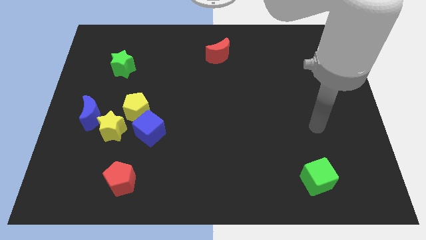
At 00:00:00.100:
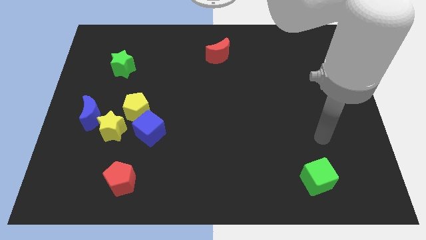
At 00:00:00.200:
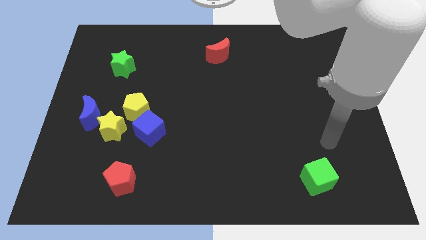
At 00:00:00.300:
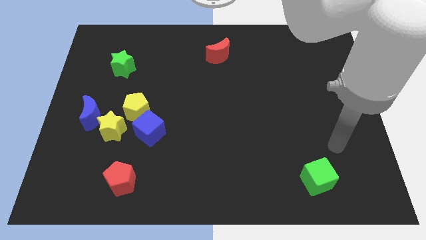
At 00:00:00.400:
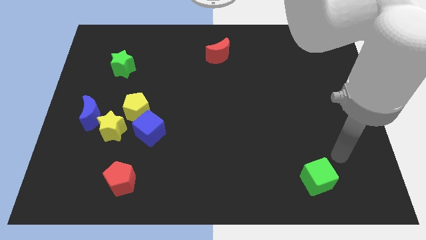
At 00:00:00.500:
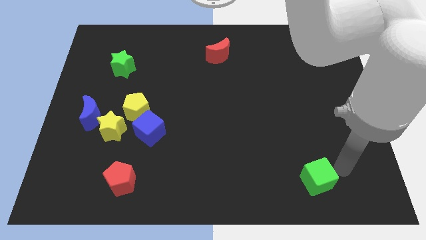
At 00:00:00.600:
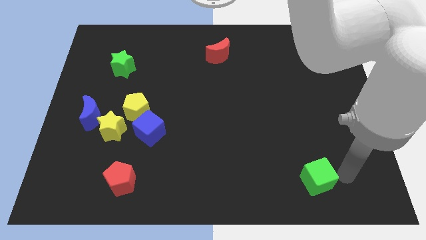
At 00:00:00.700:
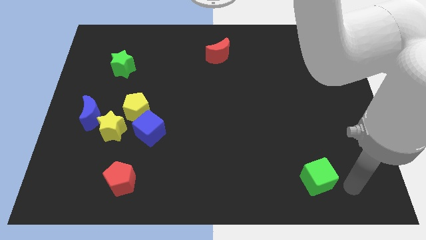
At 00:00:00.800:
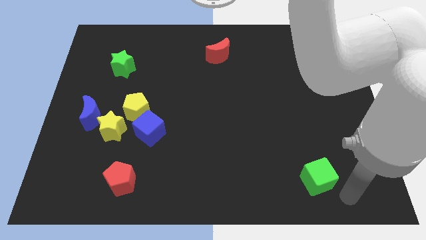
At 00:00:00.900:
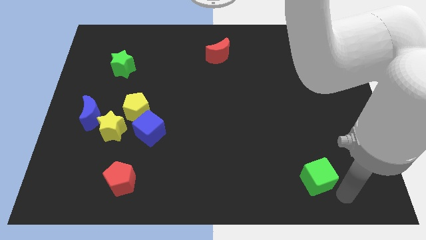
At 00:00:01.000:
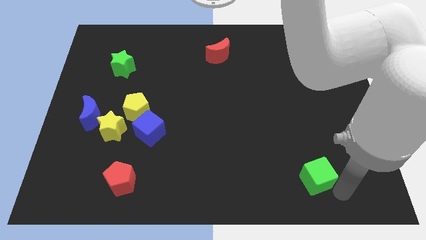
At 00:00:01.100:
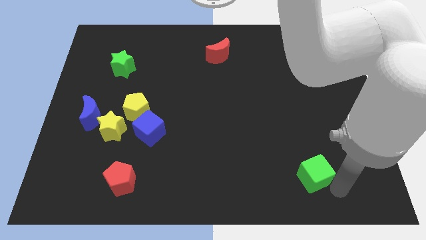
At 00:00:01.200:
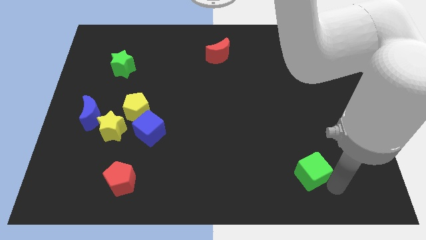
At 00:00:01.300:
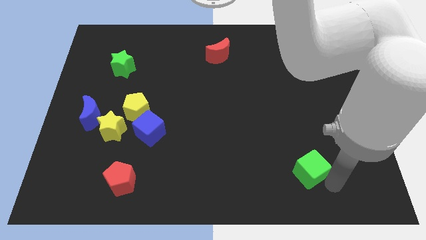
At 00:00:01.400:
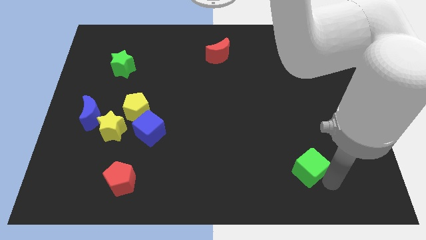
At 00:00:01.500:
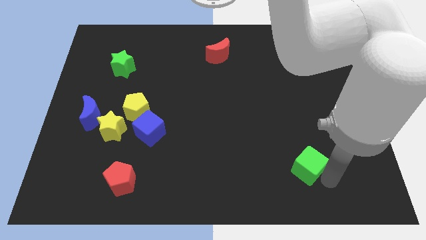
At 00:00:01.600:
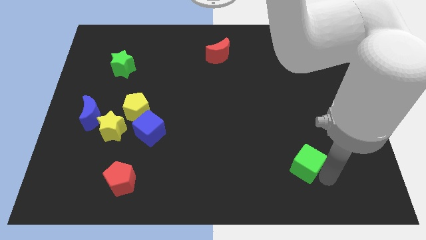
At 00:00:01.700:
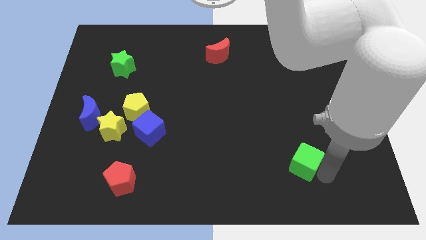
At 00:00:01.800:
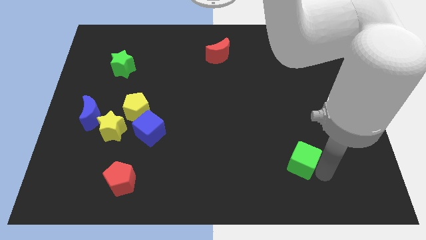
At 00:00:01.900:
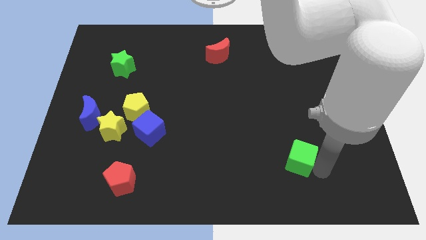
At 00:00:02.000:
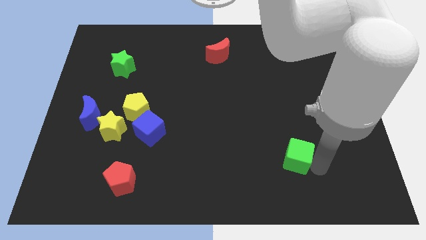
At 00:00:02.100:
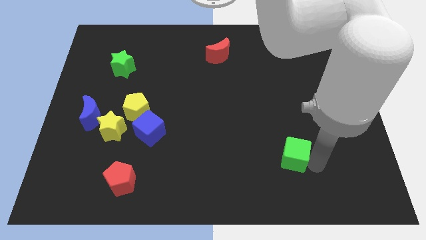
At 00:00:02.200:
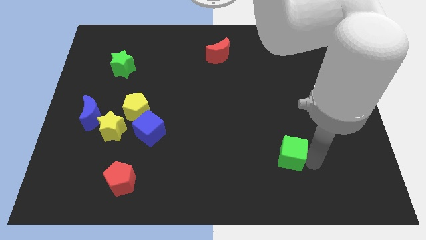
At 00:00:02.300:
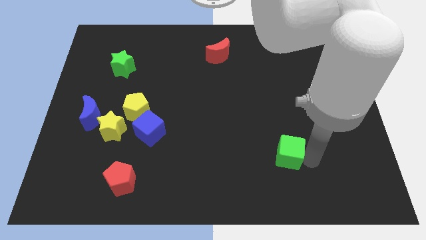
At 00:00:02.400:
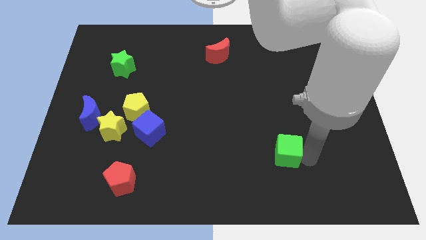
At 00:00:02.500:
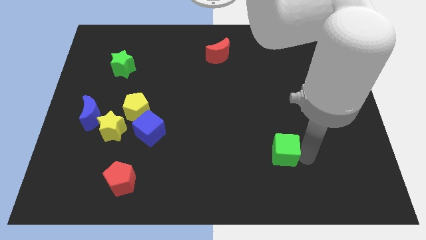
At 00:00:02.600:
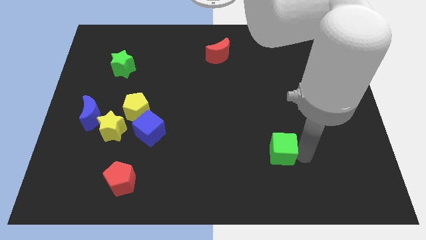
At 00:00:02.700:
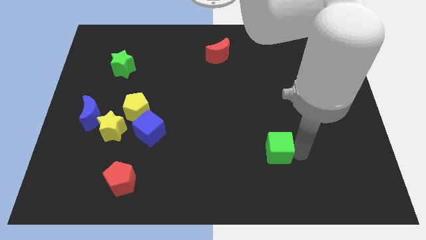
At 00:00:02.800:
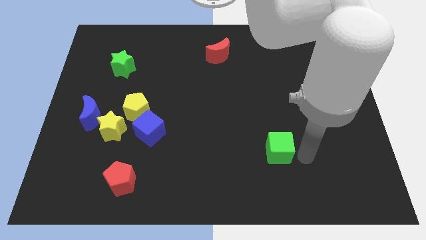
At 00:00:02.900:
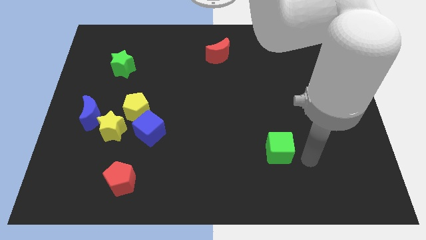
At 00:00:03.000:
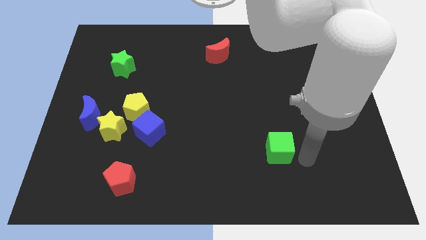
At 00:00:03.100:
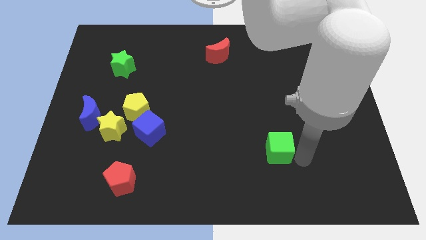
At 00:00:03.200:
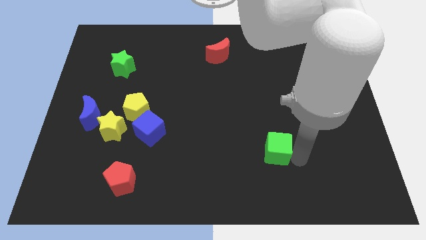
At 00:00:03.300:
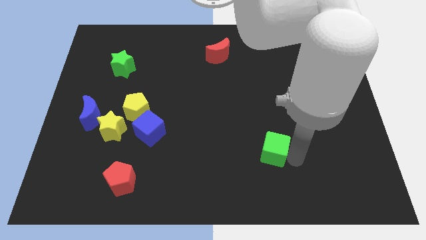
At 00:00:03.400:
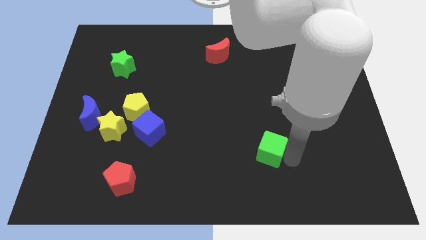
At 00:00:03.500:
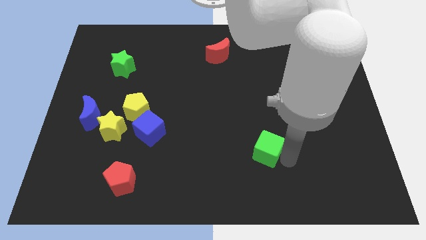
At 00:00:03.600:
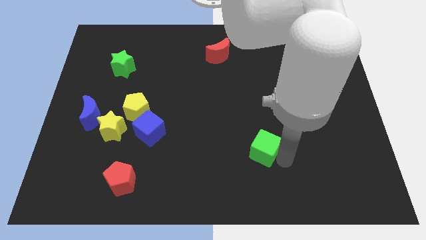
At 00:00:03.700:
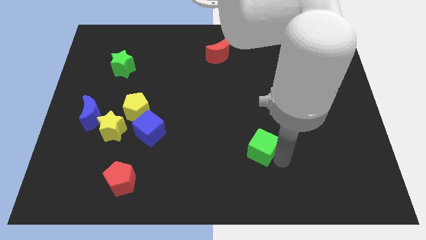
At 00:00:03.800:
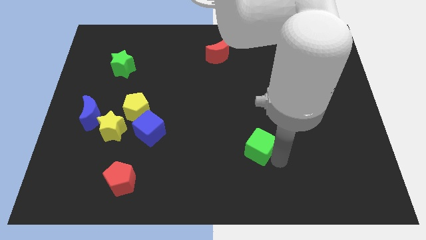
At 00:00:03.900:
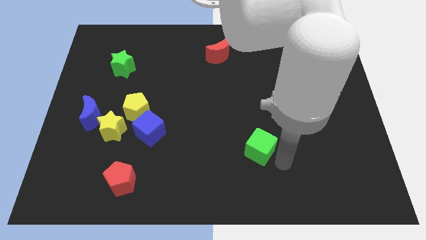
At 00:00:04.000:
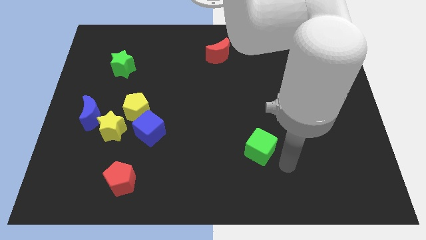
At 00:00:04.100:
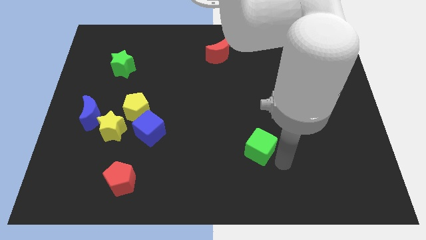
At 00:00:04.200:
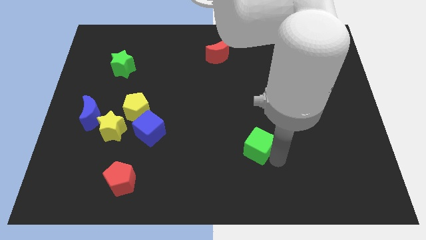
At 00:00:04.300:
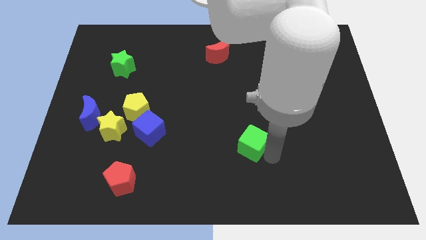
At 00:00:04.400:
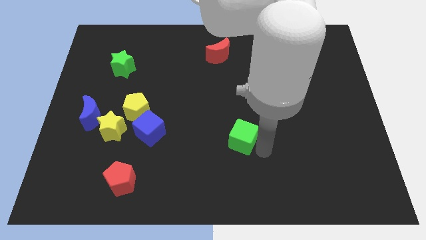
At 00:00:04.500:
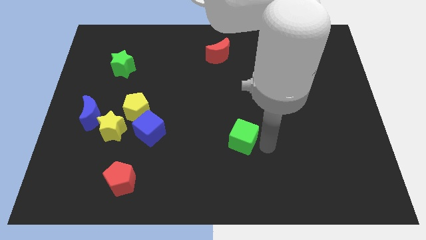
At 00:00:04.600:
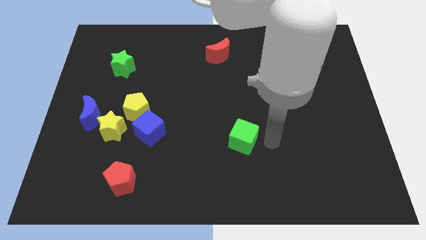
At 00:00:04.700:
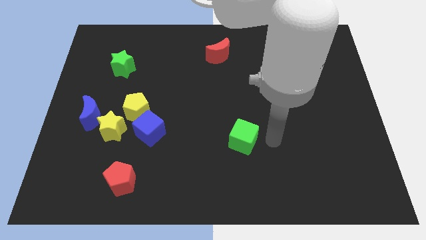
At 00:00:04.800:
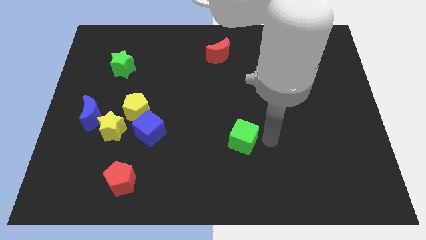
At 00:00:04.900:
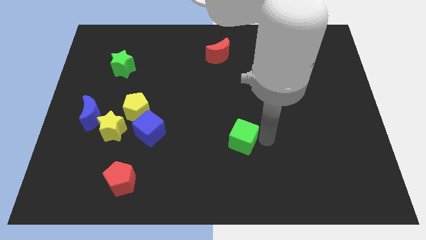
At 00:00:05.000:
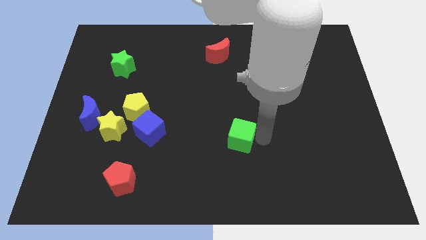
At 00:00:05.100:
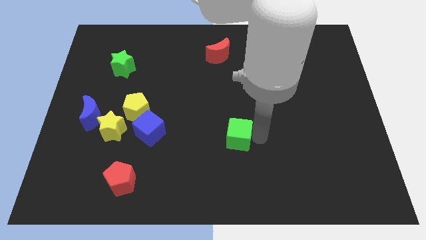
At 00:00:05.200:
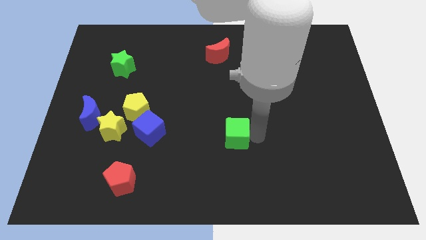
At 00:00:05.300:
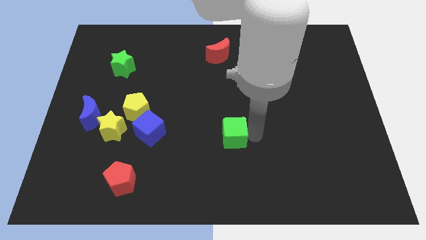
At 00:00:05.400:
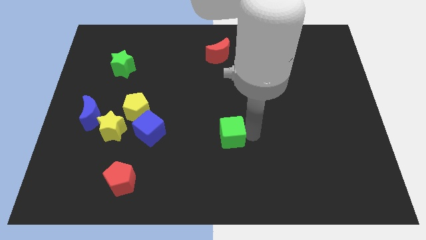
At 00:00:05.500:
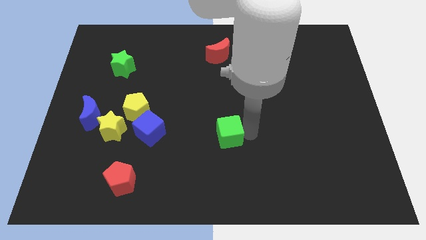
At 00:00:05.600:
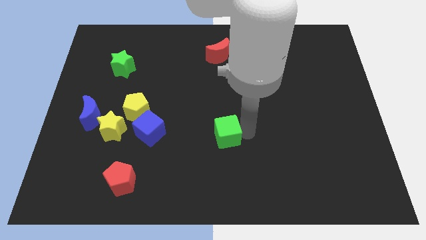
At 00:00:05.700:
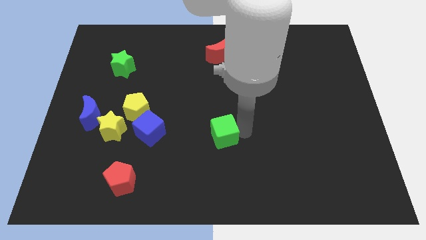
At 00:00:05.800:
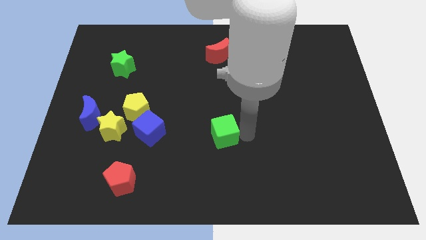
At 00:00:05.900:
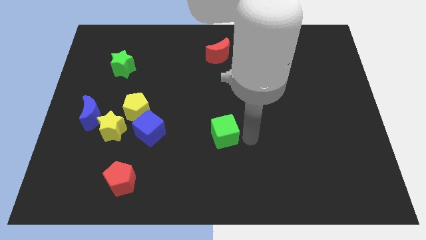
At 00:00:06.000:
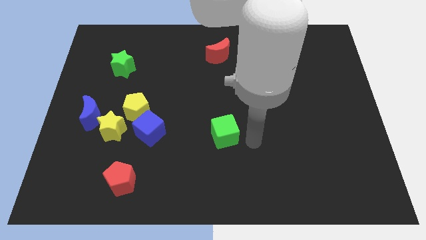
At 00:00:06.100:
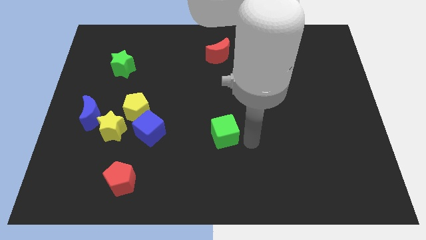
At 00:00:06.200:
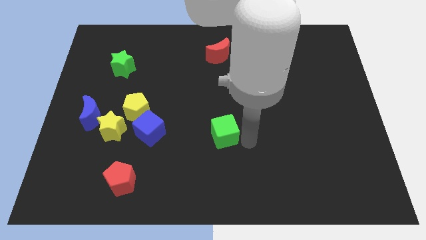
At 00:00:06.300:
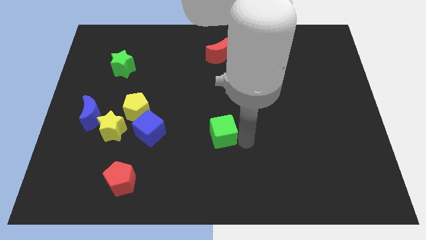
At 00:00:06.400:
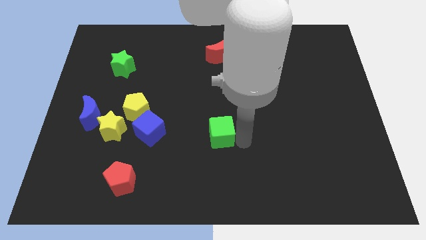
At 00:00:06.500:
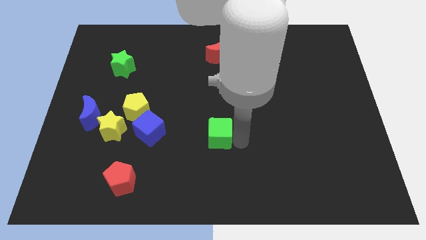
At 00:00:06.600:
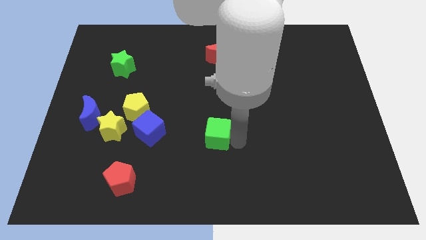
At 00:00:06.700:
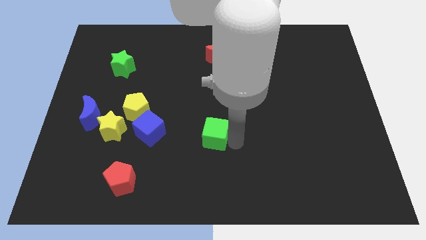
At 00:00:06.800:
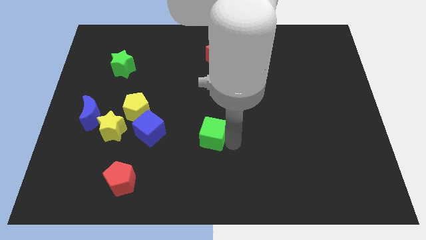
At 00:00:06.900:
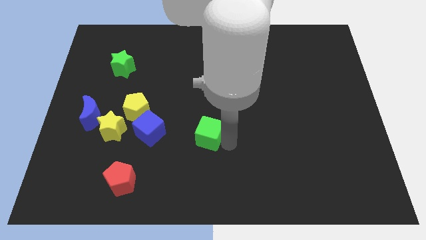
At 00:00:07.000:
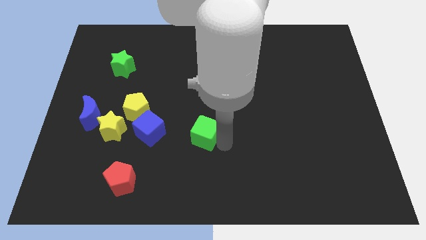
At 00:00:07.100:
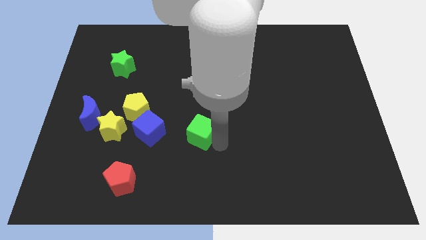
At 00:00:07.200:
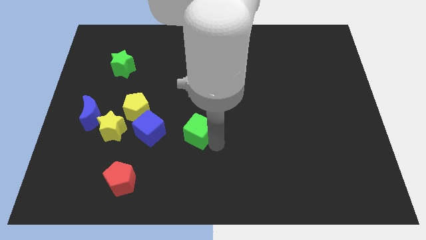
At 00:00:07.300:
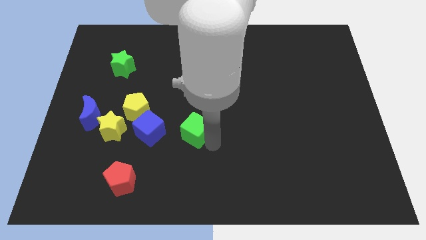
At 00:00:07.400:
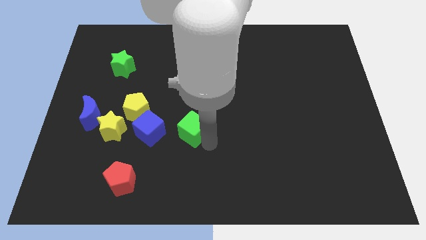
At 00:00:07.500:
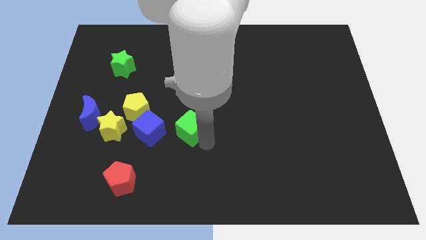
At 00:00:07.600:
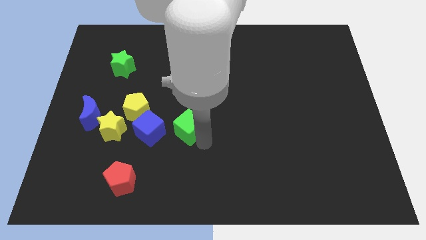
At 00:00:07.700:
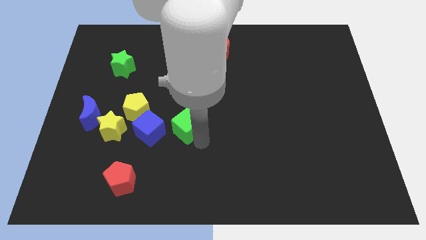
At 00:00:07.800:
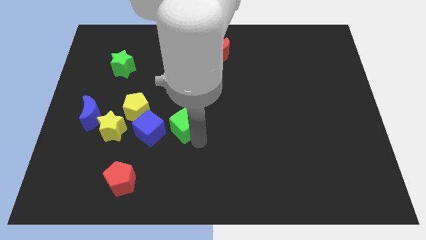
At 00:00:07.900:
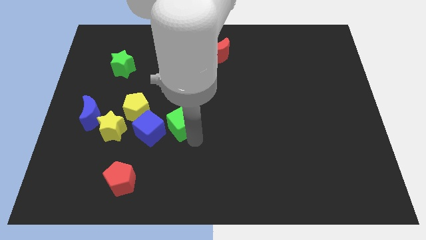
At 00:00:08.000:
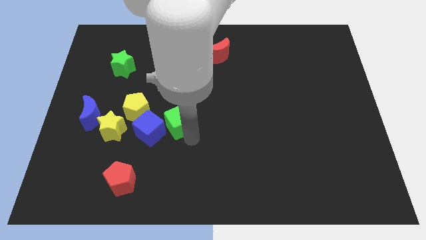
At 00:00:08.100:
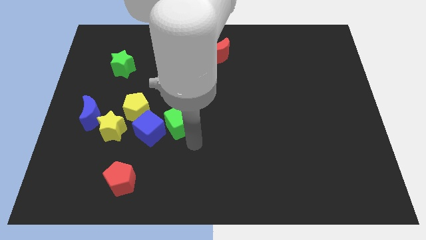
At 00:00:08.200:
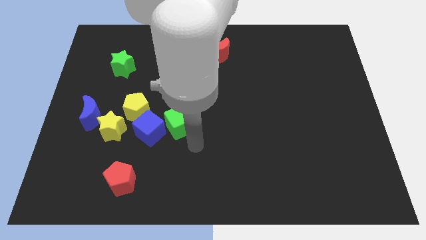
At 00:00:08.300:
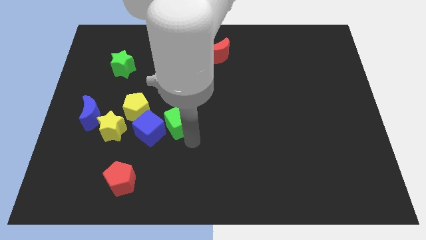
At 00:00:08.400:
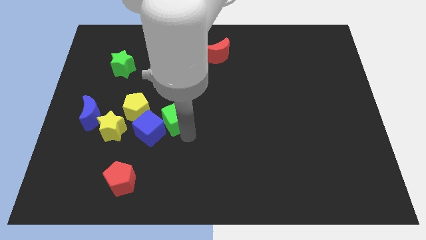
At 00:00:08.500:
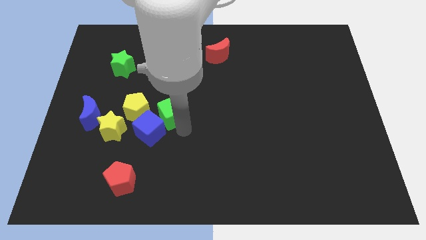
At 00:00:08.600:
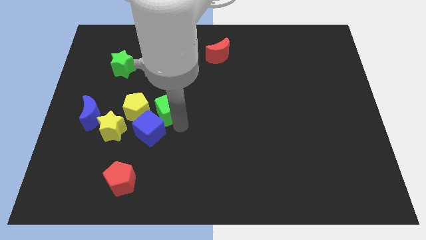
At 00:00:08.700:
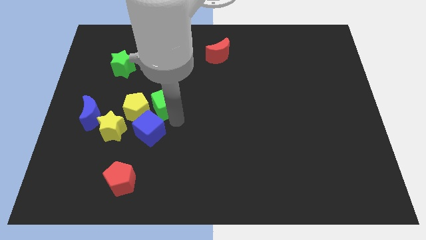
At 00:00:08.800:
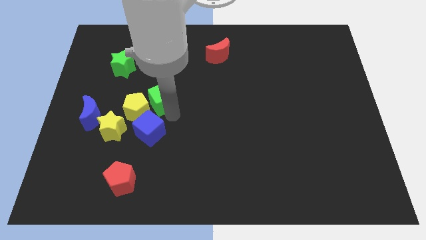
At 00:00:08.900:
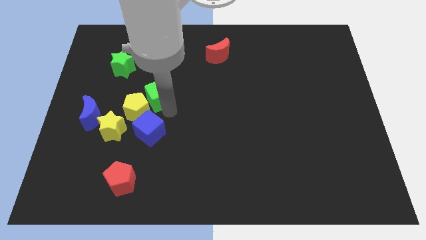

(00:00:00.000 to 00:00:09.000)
slide the green cube to the top side of the yellow pentagon
